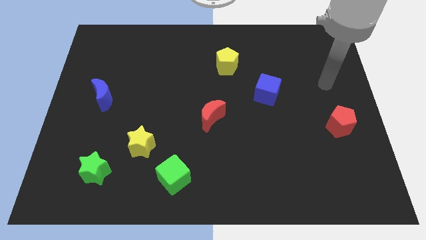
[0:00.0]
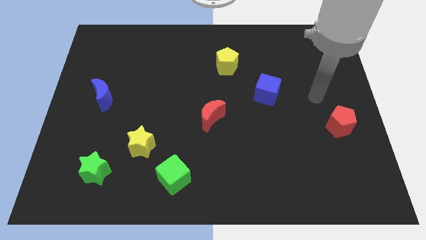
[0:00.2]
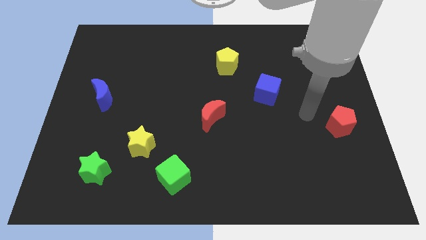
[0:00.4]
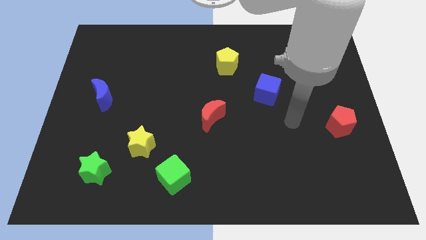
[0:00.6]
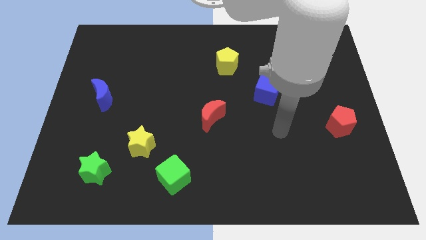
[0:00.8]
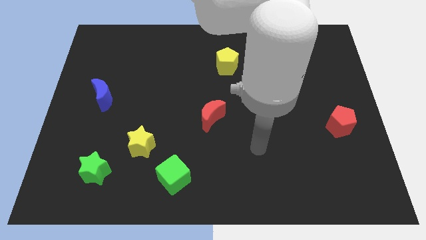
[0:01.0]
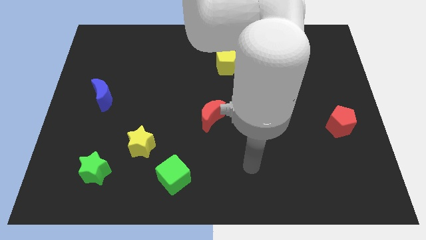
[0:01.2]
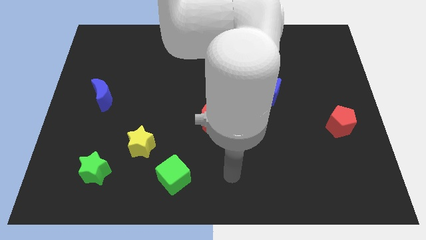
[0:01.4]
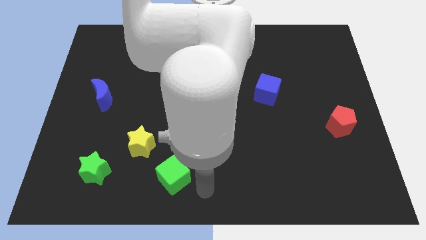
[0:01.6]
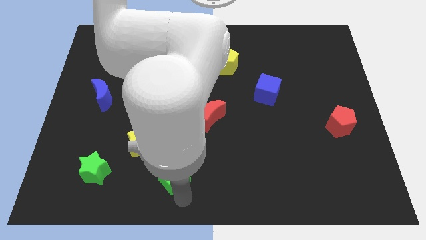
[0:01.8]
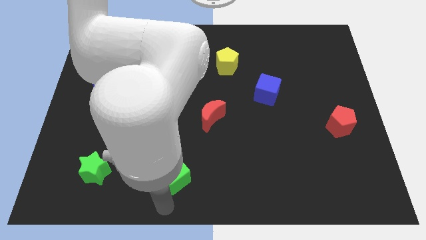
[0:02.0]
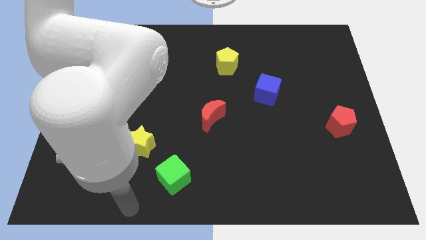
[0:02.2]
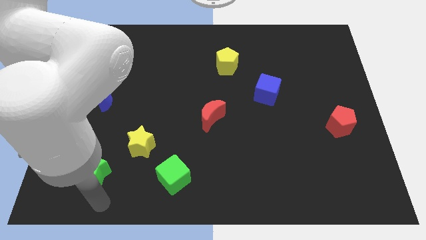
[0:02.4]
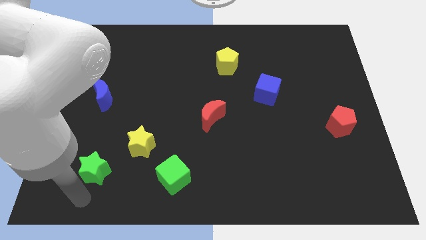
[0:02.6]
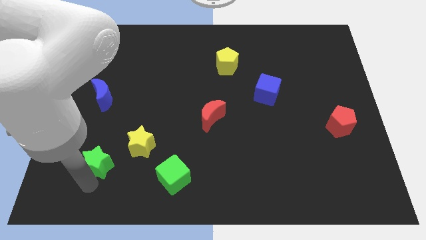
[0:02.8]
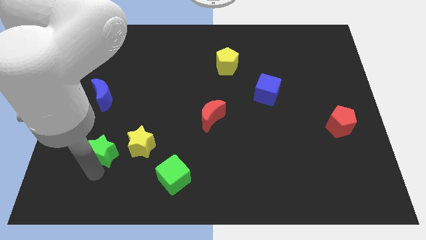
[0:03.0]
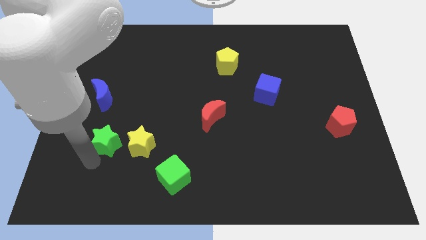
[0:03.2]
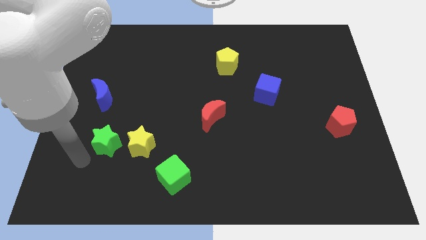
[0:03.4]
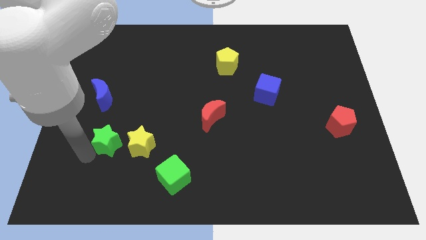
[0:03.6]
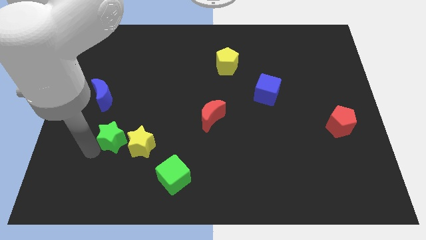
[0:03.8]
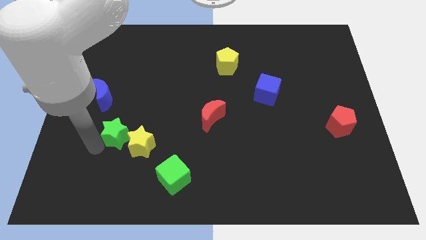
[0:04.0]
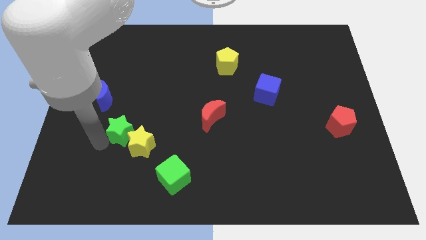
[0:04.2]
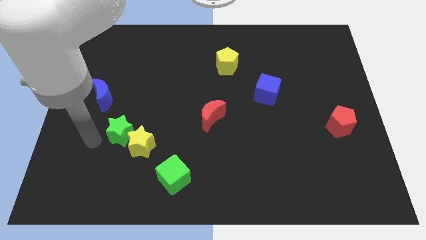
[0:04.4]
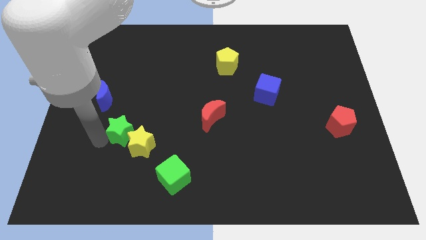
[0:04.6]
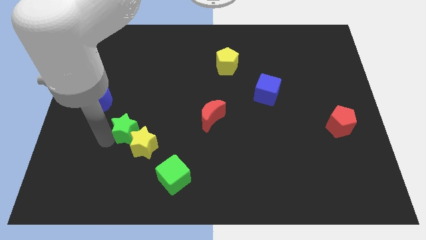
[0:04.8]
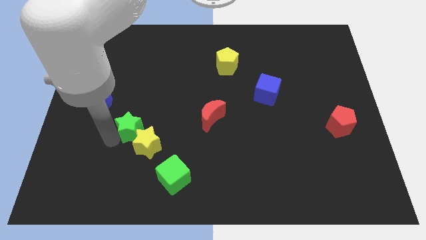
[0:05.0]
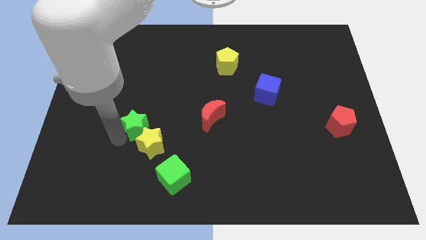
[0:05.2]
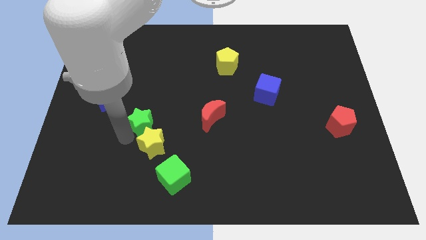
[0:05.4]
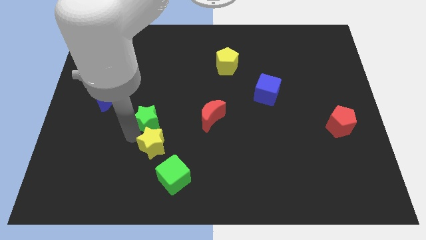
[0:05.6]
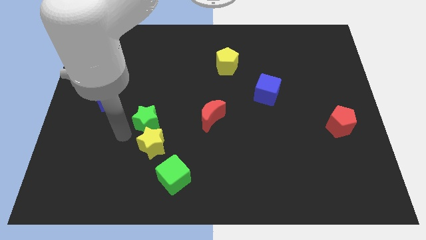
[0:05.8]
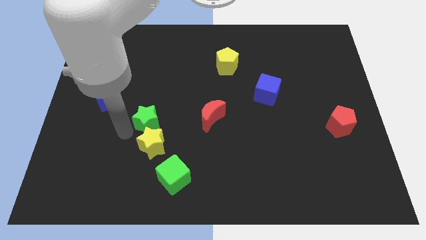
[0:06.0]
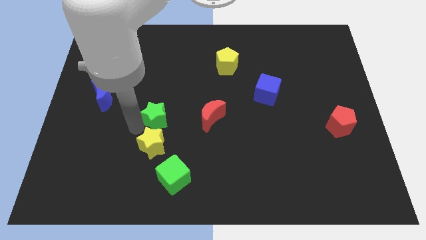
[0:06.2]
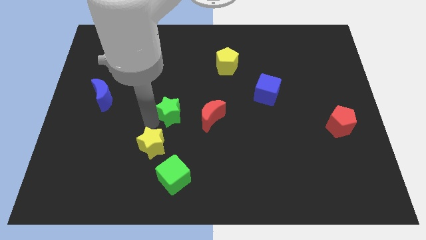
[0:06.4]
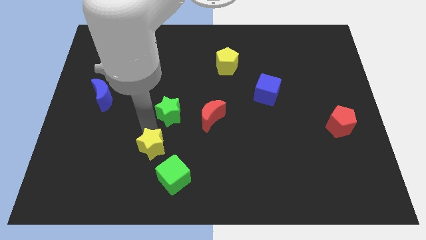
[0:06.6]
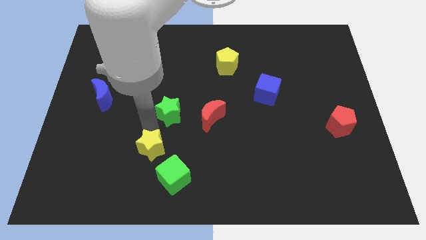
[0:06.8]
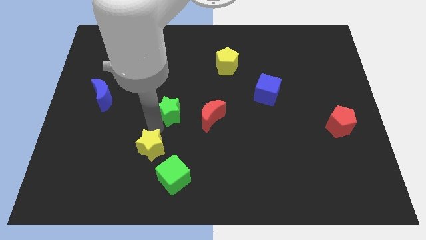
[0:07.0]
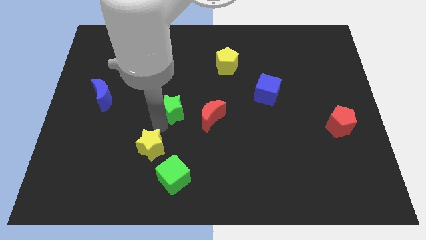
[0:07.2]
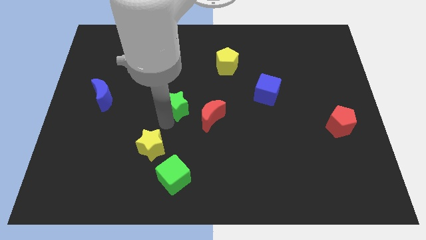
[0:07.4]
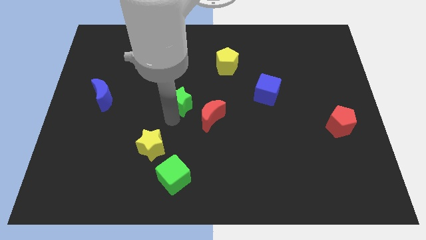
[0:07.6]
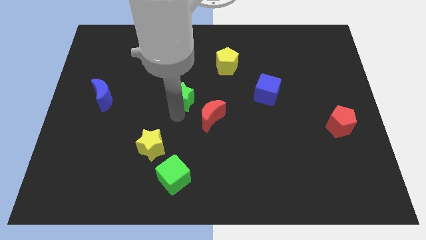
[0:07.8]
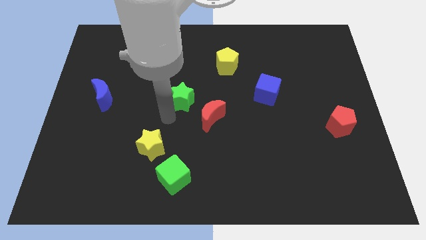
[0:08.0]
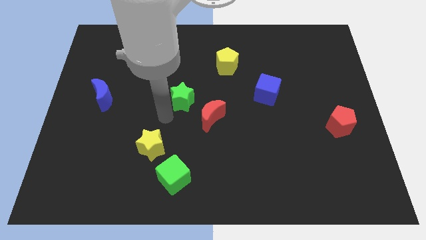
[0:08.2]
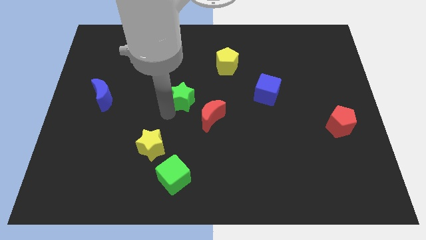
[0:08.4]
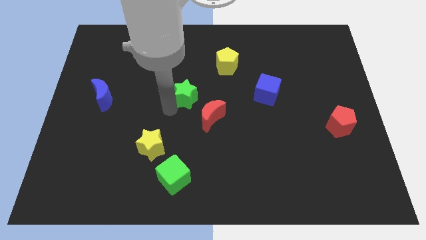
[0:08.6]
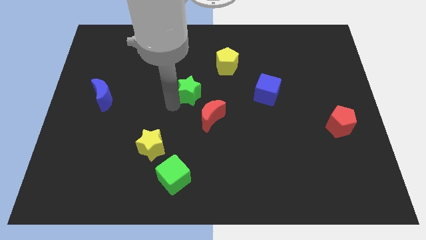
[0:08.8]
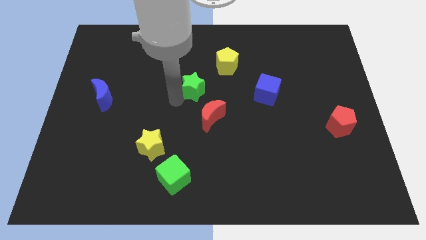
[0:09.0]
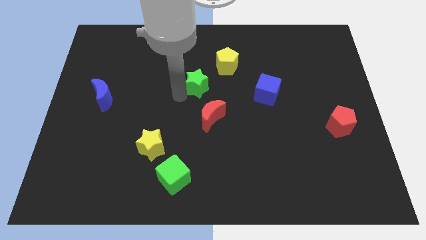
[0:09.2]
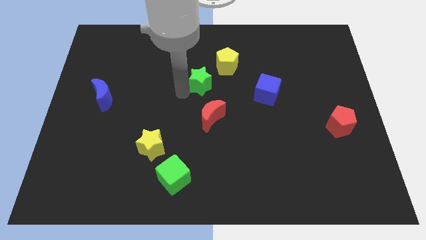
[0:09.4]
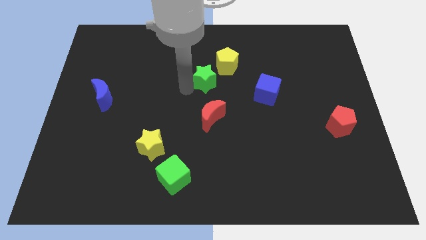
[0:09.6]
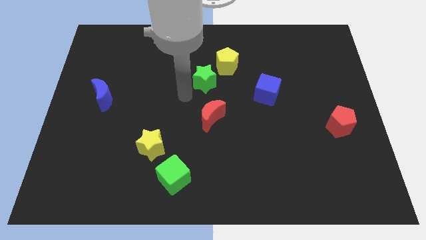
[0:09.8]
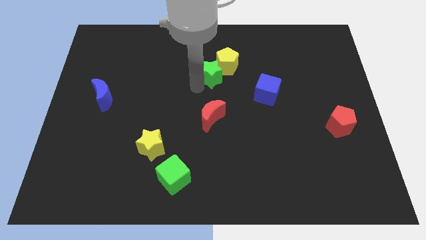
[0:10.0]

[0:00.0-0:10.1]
move the green star close to the yellow pentagon

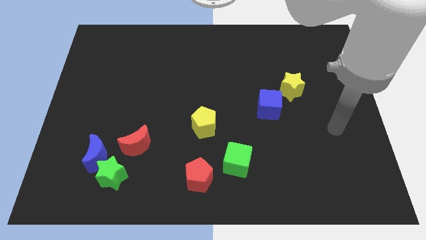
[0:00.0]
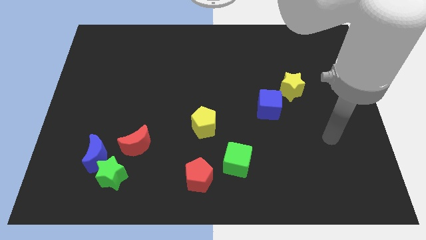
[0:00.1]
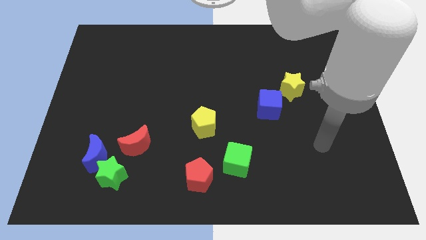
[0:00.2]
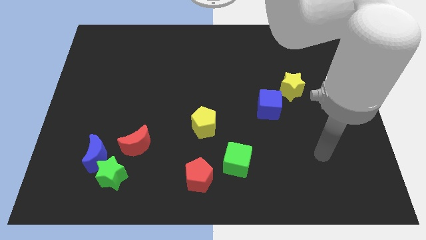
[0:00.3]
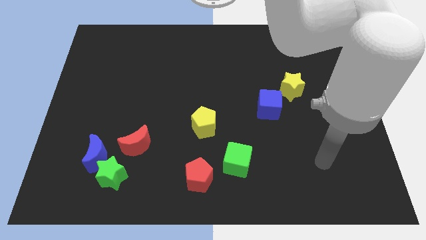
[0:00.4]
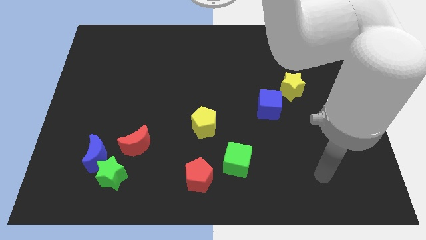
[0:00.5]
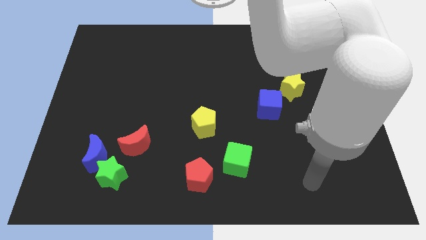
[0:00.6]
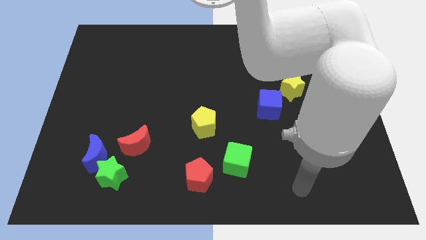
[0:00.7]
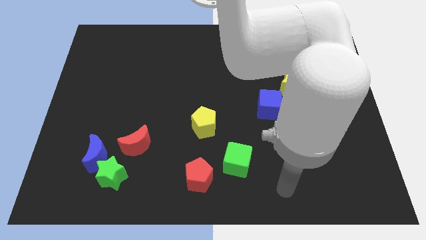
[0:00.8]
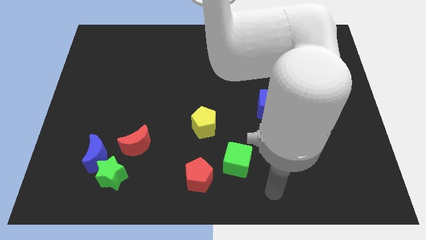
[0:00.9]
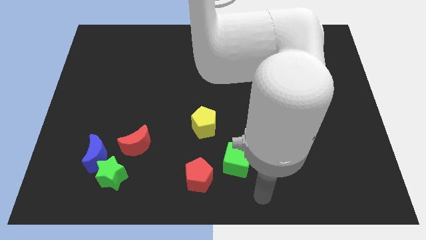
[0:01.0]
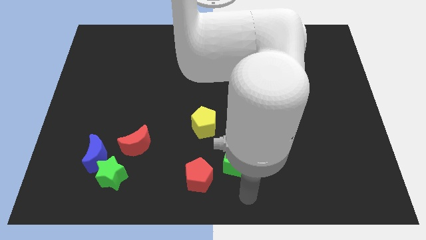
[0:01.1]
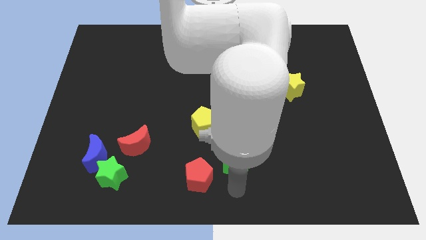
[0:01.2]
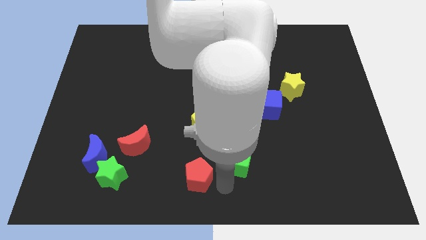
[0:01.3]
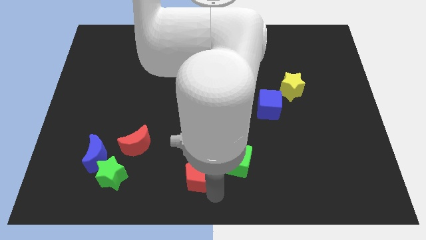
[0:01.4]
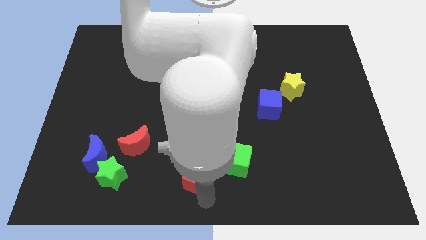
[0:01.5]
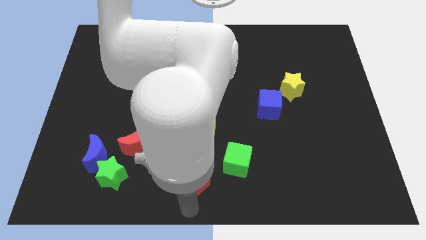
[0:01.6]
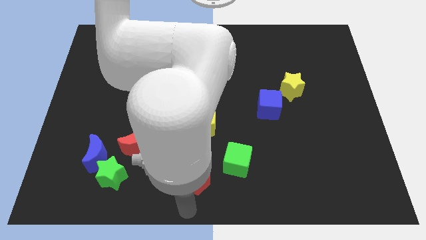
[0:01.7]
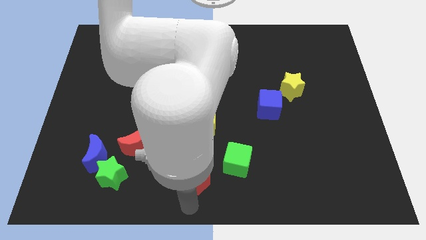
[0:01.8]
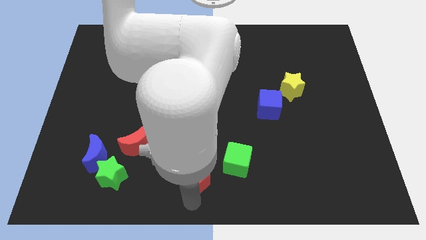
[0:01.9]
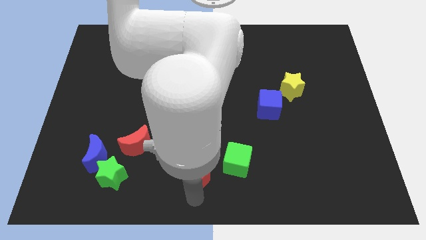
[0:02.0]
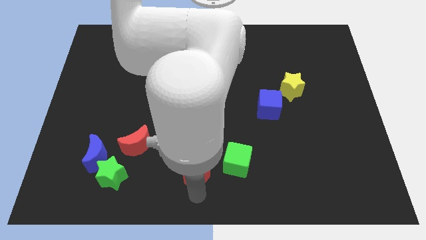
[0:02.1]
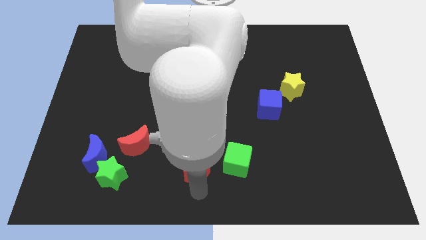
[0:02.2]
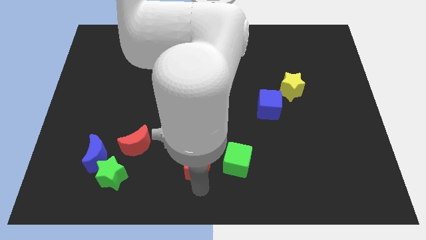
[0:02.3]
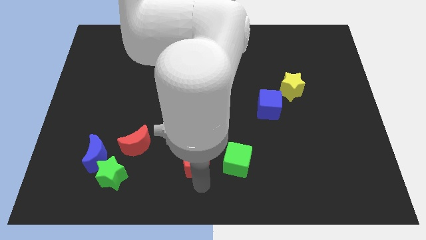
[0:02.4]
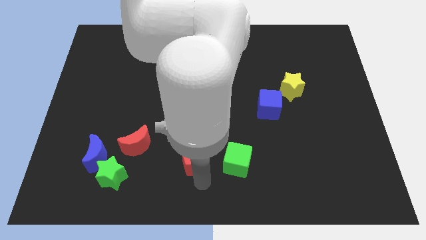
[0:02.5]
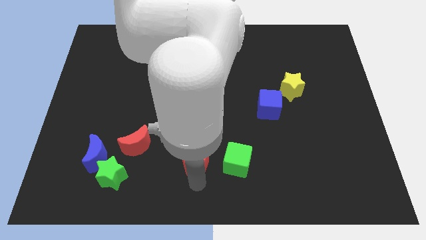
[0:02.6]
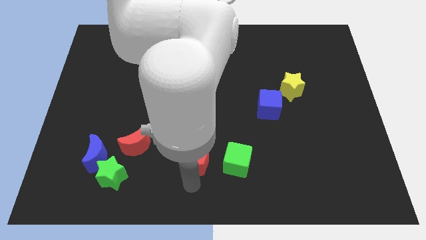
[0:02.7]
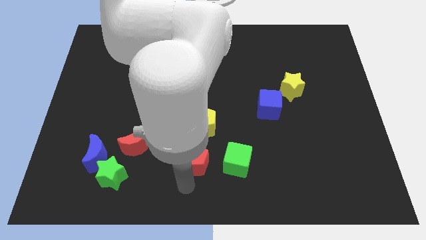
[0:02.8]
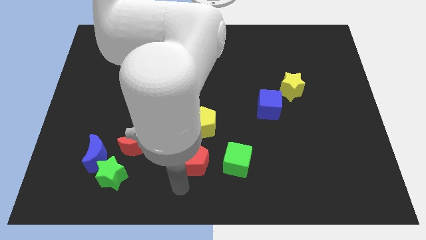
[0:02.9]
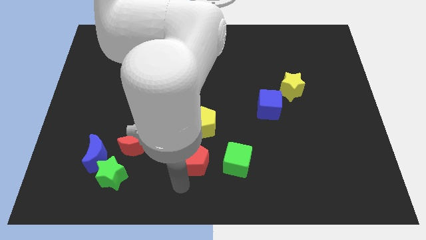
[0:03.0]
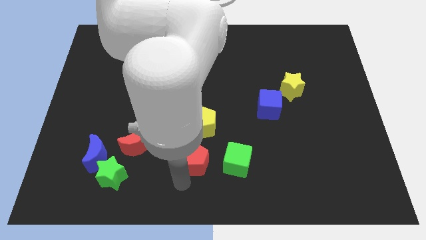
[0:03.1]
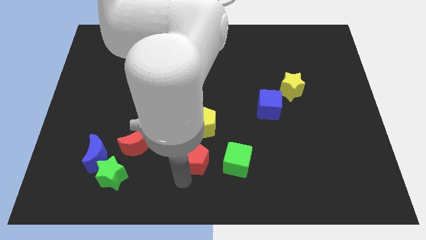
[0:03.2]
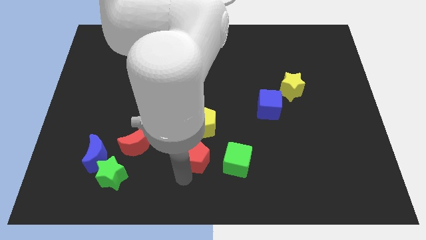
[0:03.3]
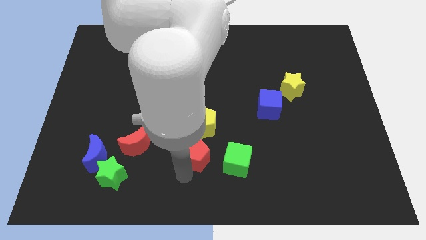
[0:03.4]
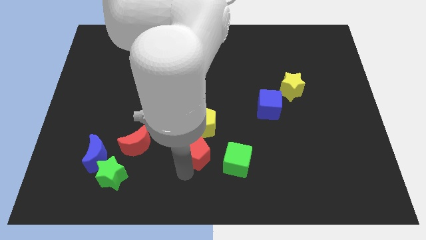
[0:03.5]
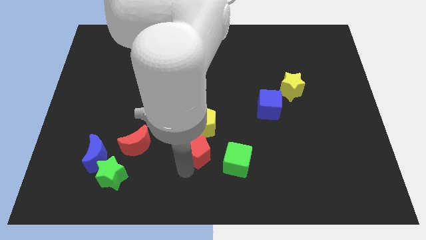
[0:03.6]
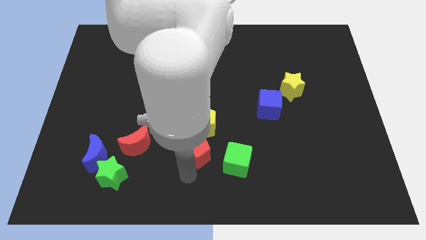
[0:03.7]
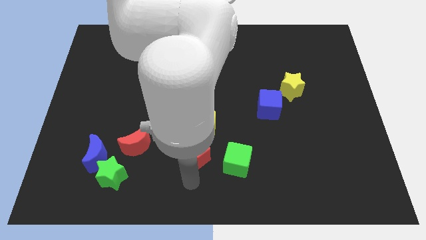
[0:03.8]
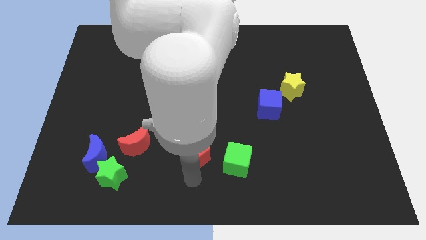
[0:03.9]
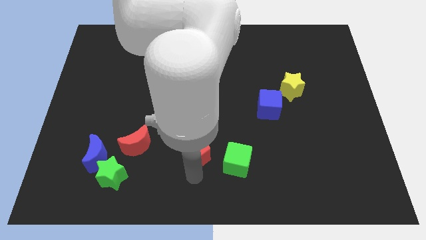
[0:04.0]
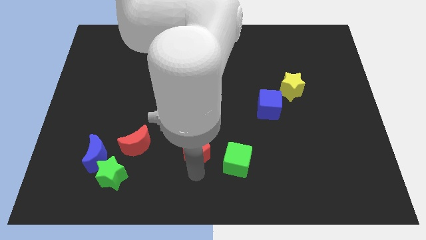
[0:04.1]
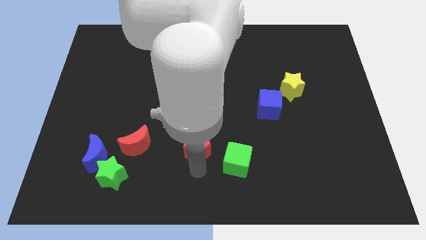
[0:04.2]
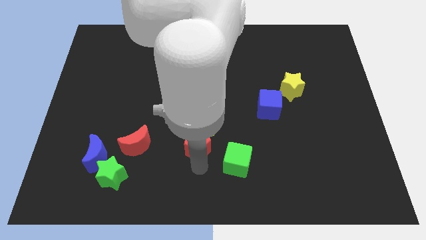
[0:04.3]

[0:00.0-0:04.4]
push the red pentagon close to the yellow pentagon
